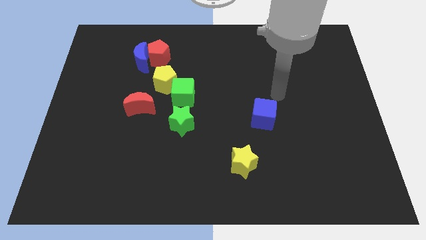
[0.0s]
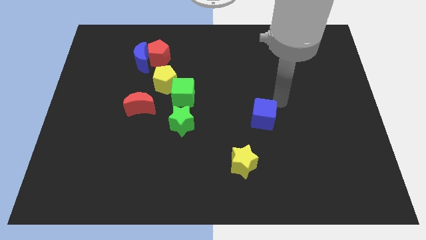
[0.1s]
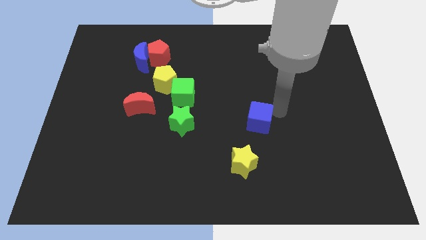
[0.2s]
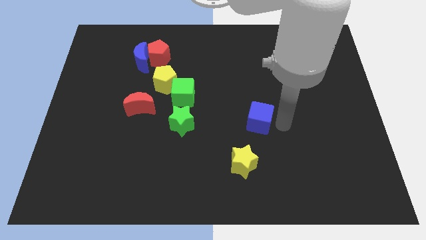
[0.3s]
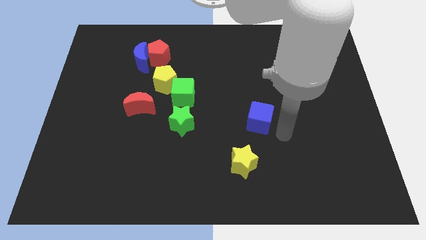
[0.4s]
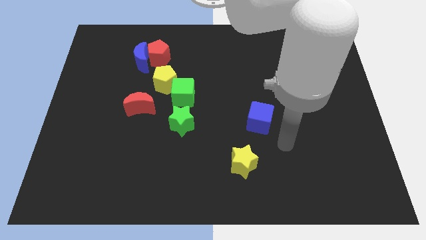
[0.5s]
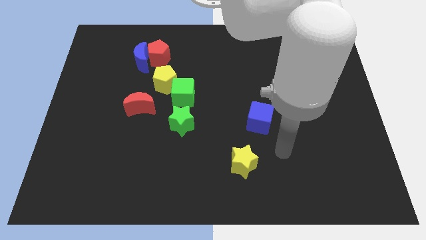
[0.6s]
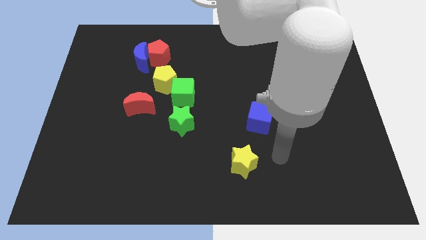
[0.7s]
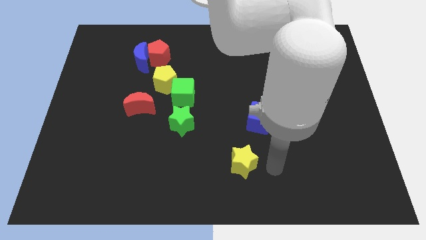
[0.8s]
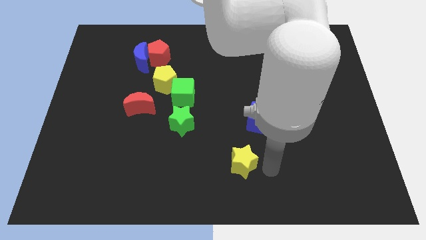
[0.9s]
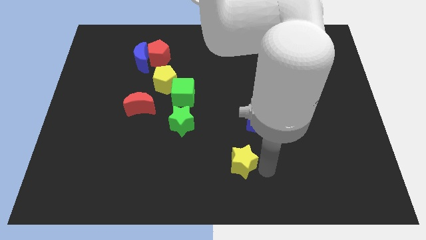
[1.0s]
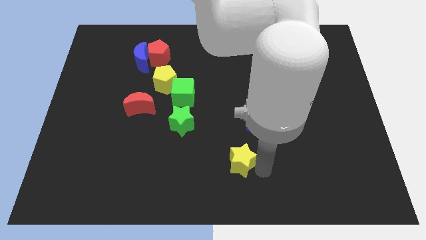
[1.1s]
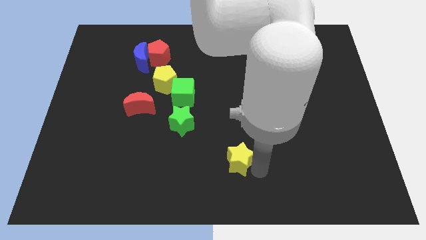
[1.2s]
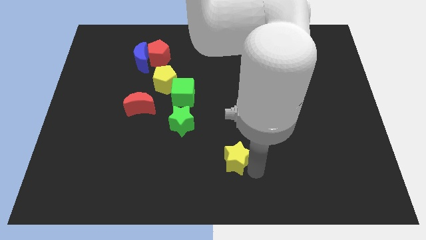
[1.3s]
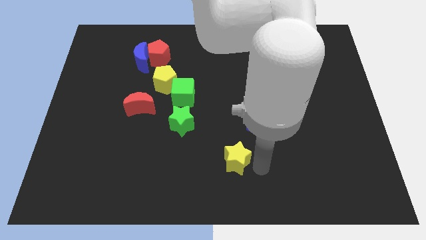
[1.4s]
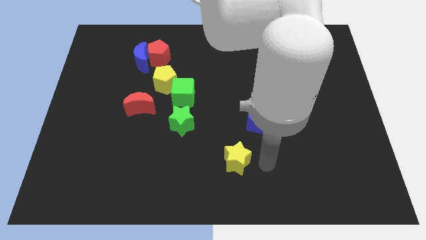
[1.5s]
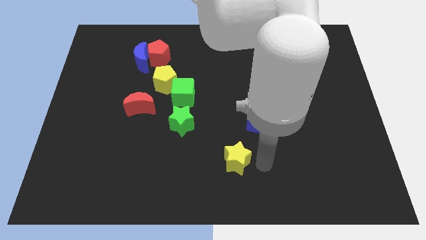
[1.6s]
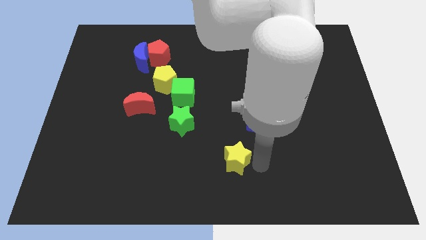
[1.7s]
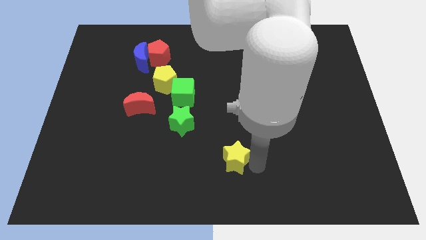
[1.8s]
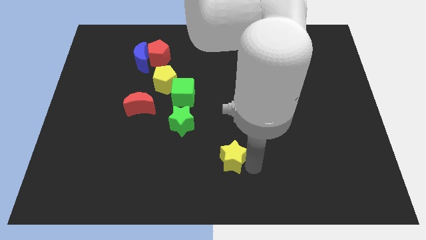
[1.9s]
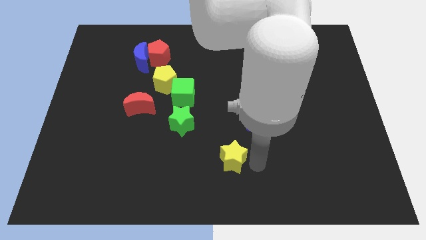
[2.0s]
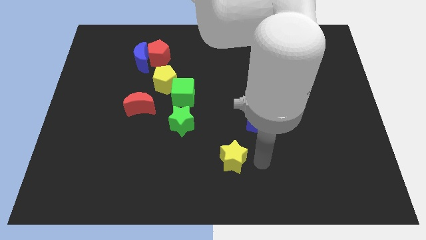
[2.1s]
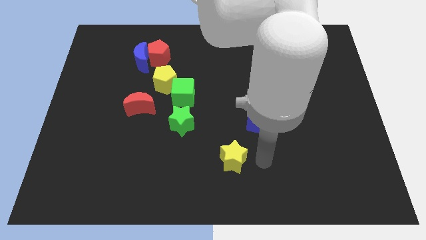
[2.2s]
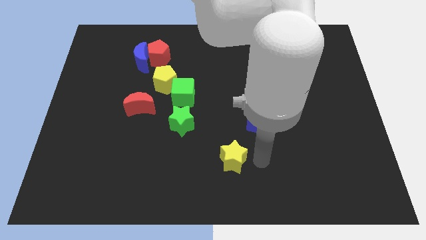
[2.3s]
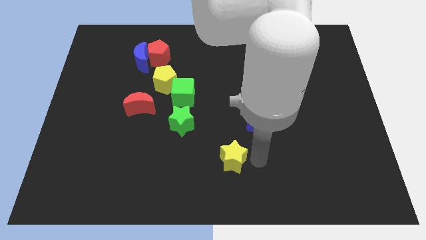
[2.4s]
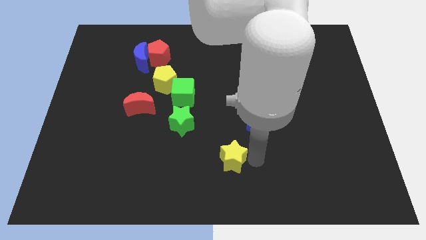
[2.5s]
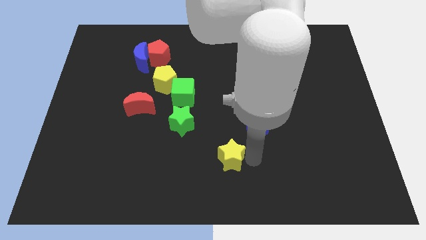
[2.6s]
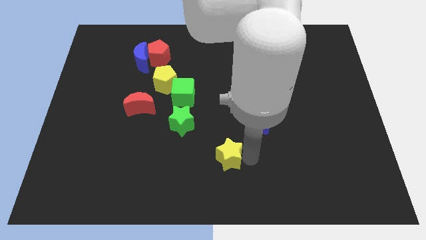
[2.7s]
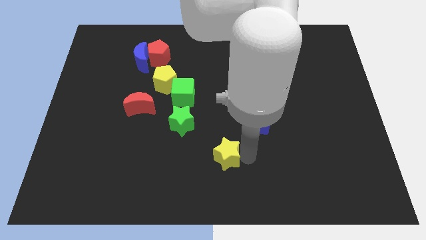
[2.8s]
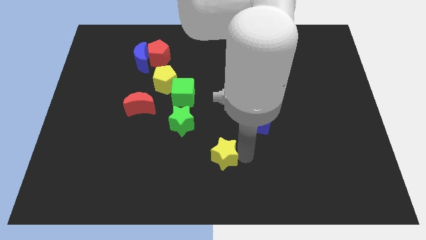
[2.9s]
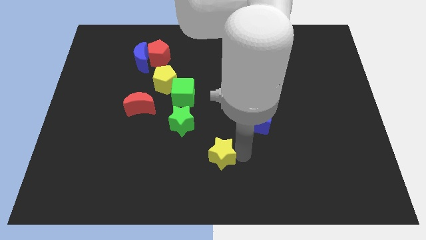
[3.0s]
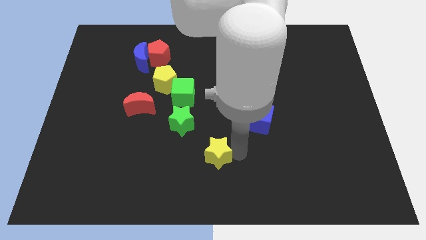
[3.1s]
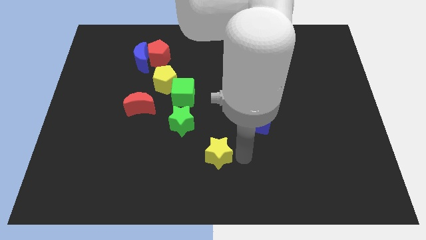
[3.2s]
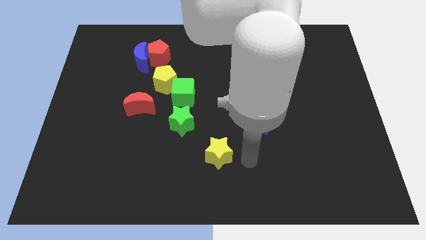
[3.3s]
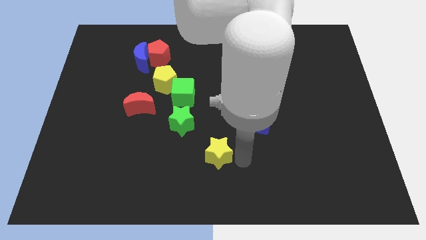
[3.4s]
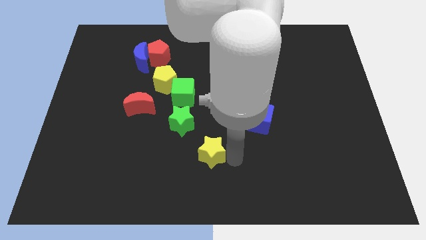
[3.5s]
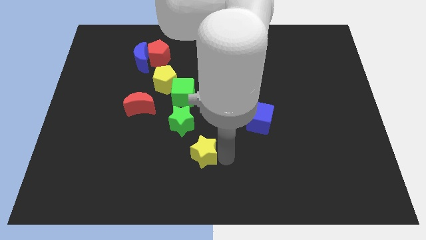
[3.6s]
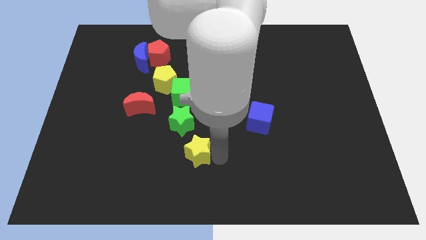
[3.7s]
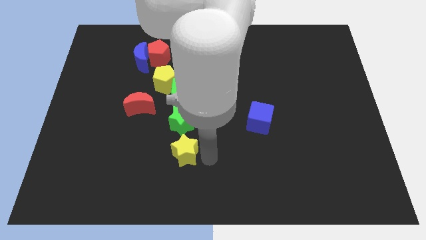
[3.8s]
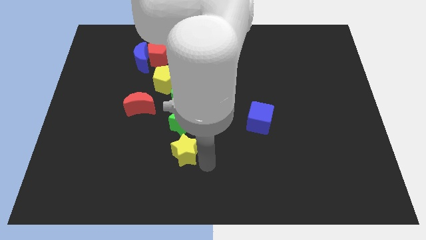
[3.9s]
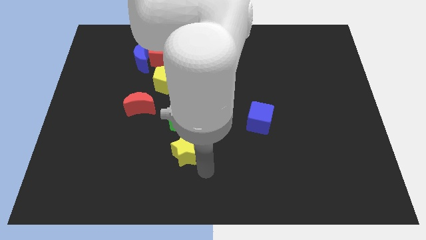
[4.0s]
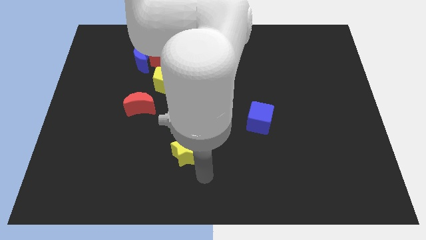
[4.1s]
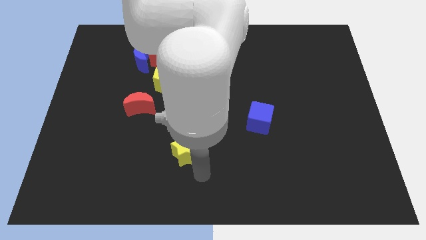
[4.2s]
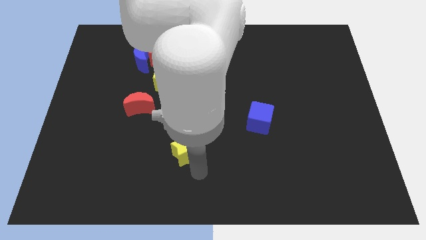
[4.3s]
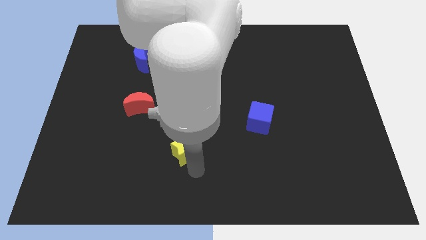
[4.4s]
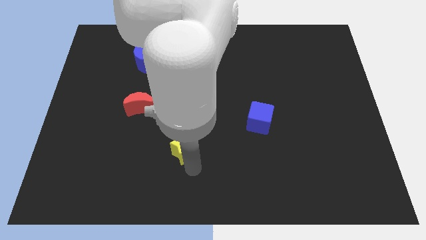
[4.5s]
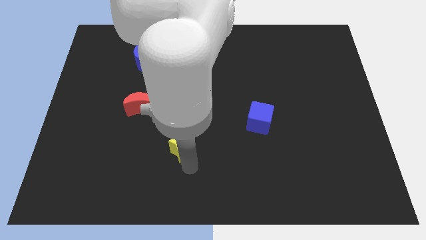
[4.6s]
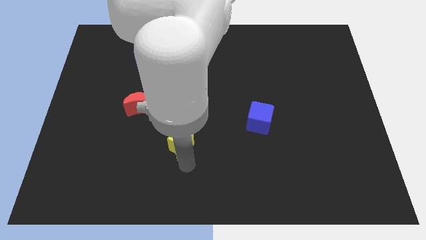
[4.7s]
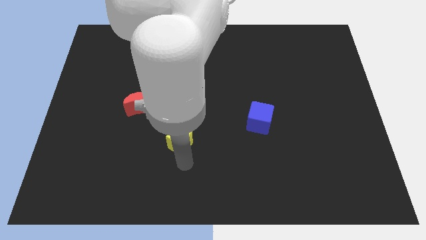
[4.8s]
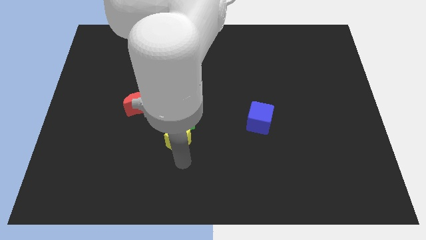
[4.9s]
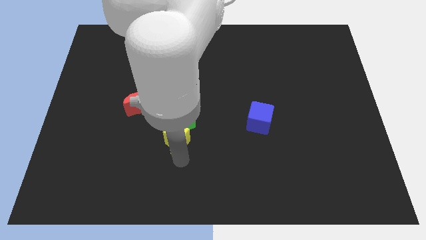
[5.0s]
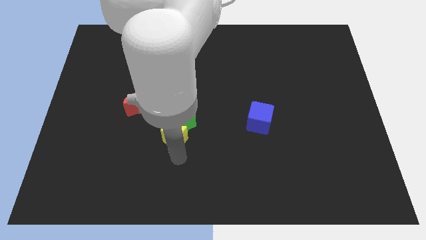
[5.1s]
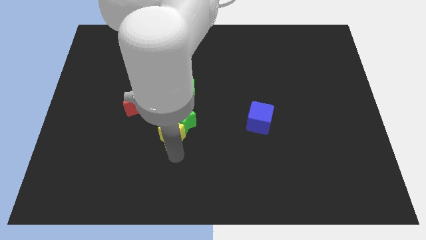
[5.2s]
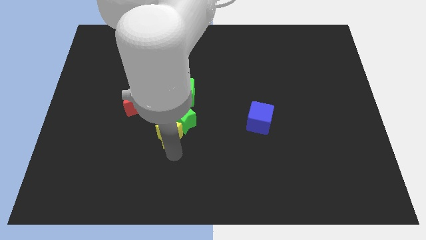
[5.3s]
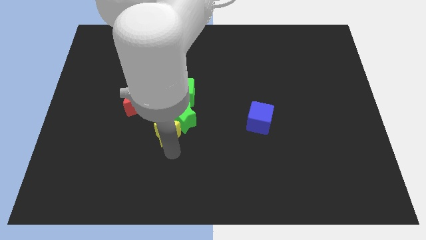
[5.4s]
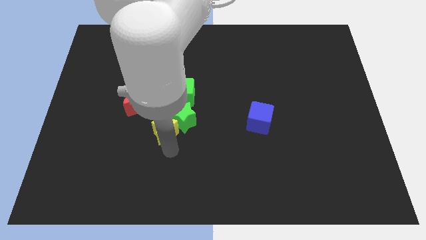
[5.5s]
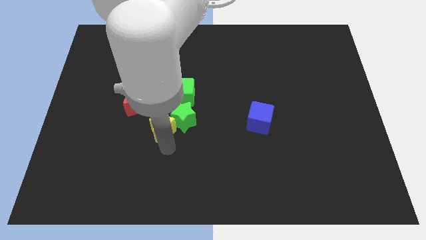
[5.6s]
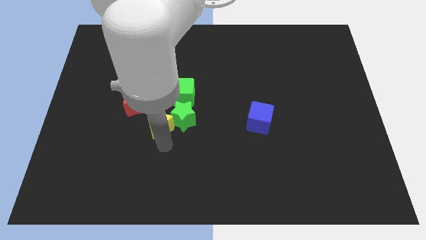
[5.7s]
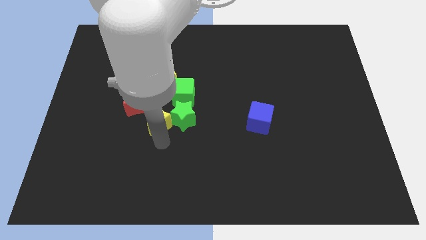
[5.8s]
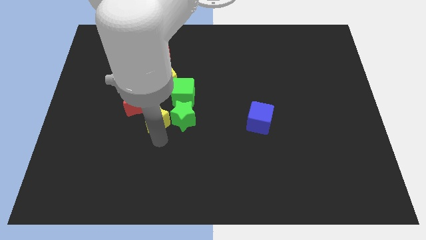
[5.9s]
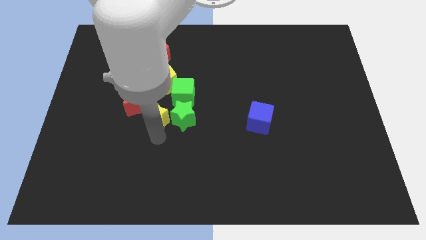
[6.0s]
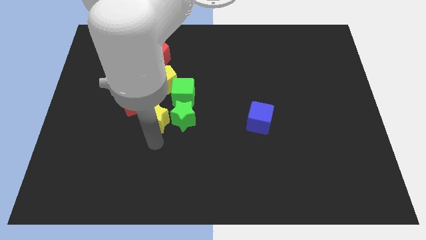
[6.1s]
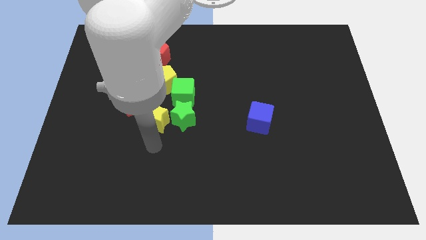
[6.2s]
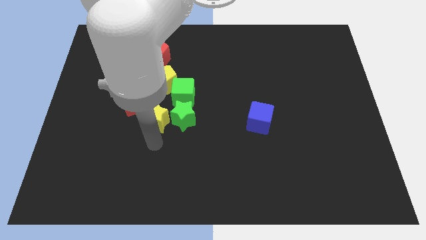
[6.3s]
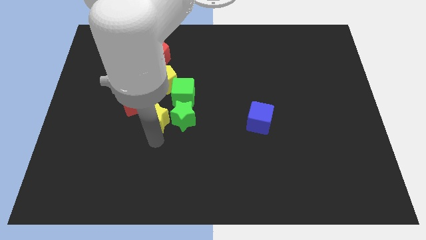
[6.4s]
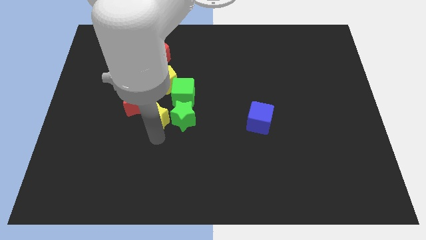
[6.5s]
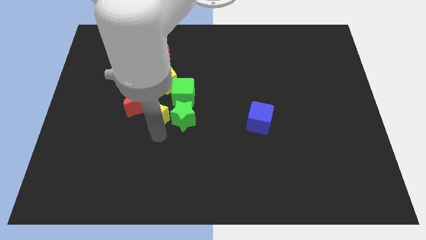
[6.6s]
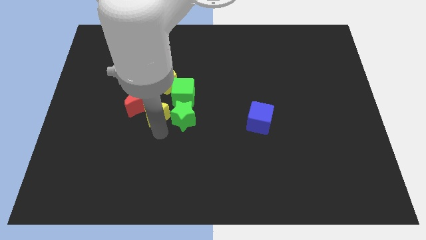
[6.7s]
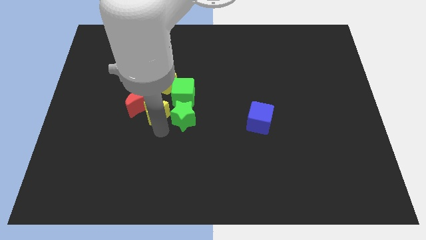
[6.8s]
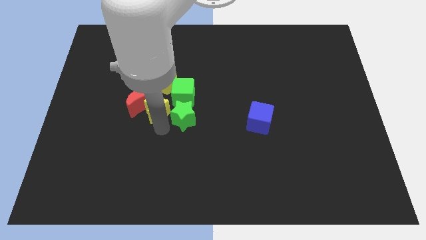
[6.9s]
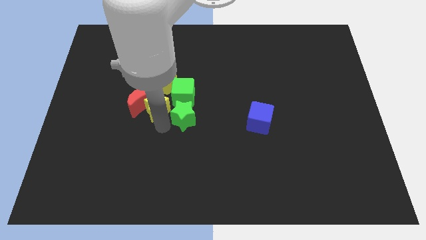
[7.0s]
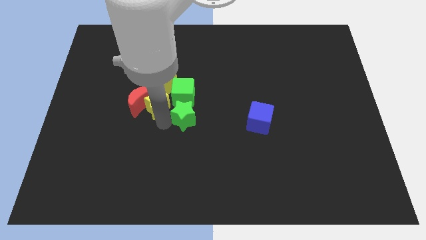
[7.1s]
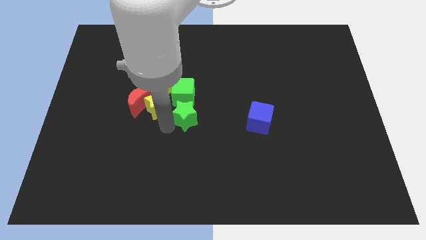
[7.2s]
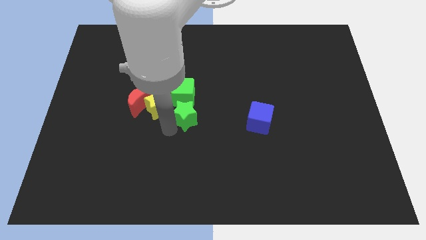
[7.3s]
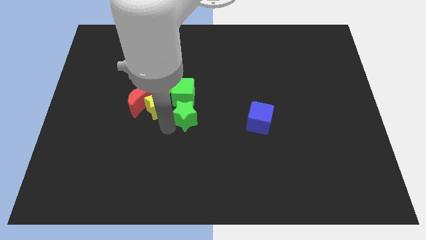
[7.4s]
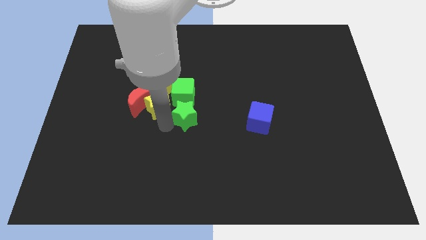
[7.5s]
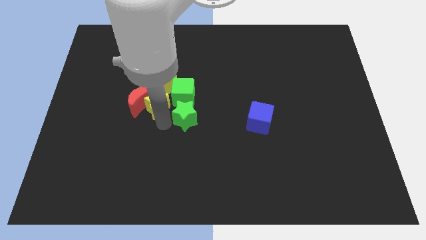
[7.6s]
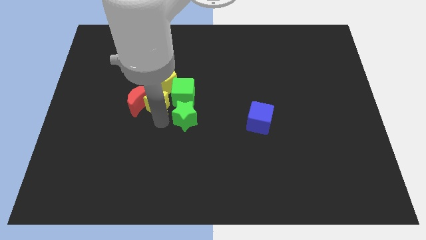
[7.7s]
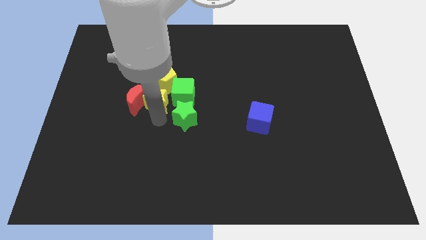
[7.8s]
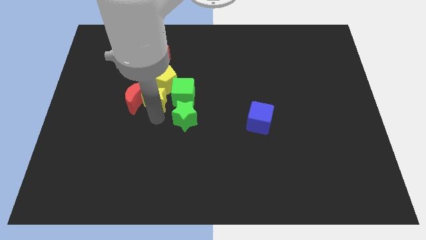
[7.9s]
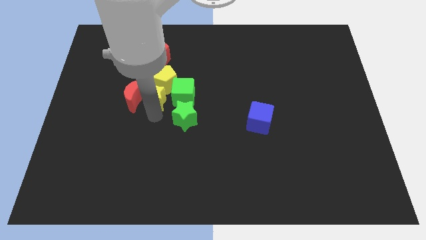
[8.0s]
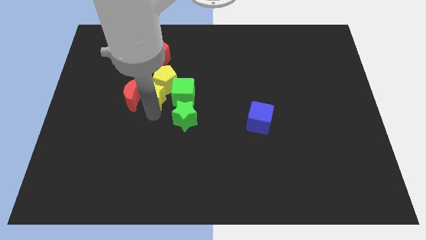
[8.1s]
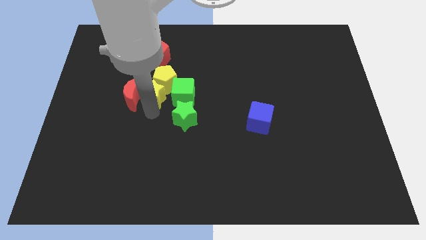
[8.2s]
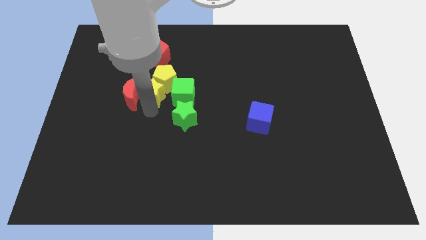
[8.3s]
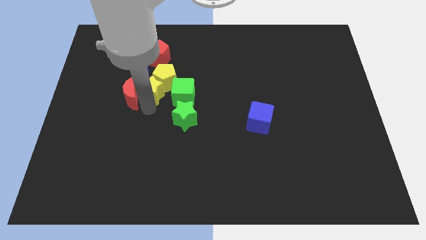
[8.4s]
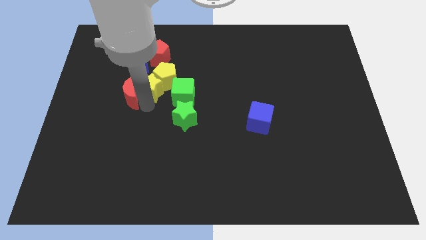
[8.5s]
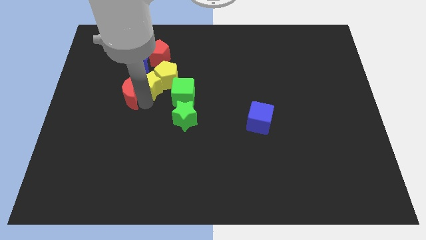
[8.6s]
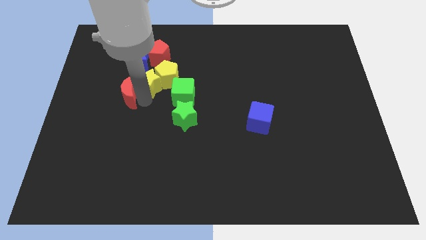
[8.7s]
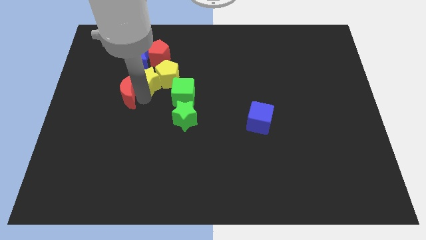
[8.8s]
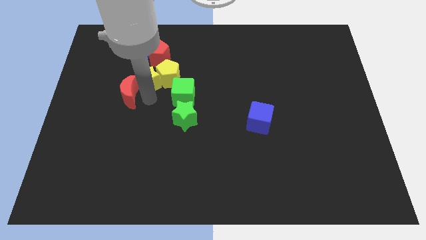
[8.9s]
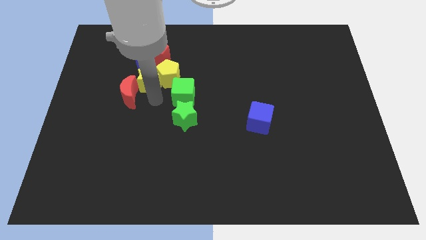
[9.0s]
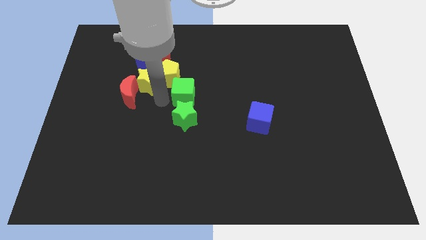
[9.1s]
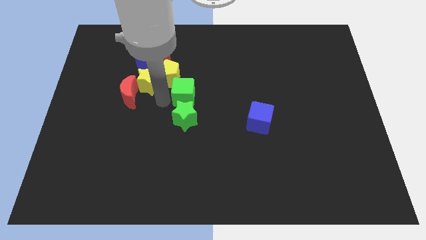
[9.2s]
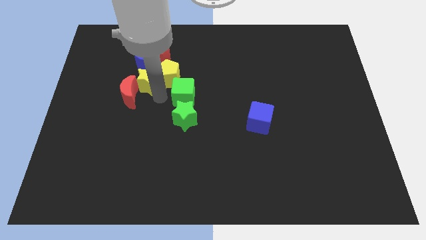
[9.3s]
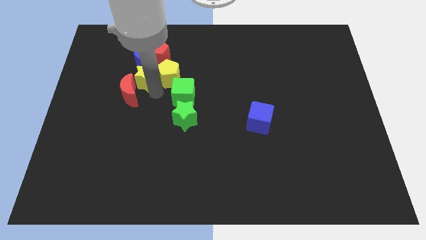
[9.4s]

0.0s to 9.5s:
push the yellow star to the bottom left side of the red pentagon
